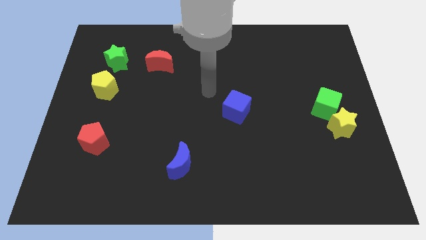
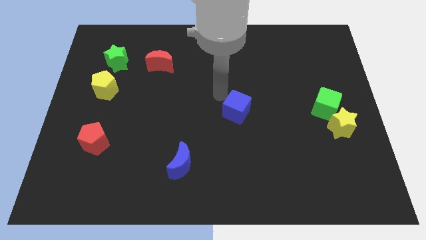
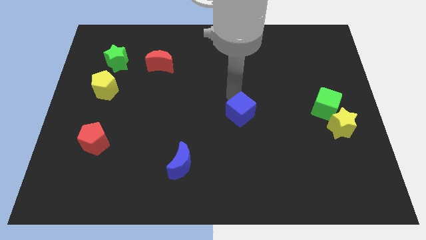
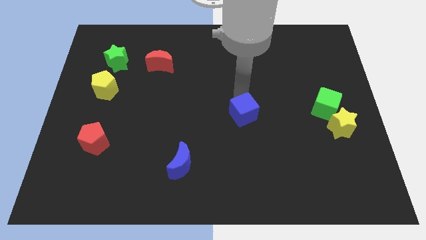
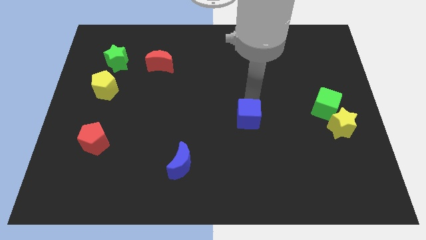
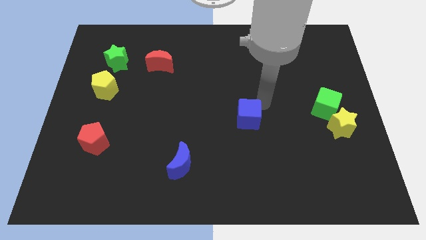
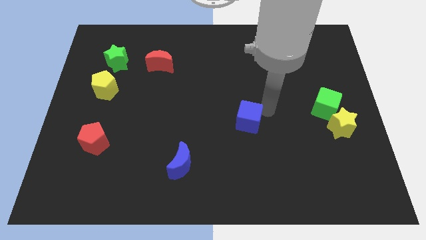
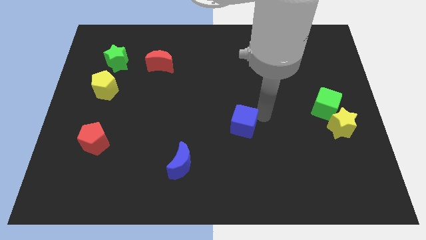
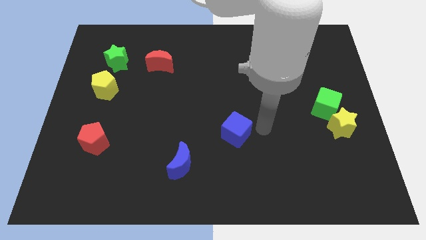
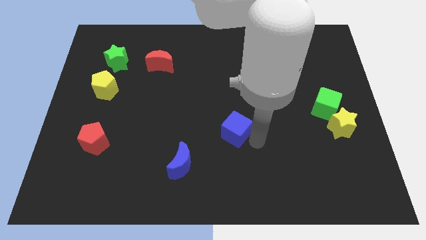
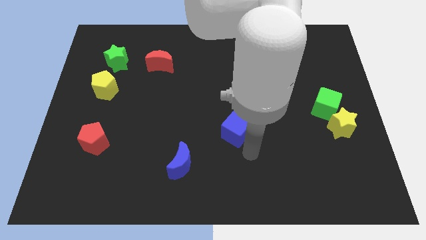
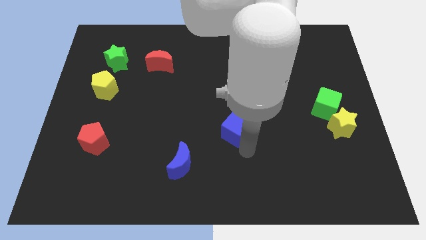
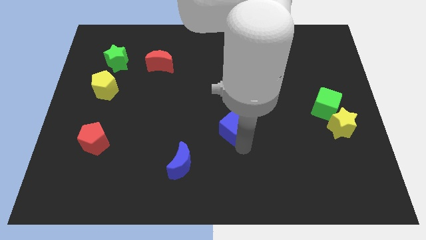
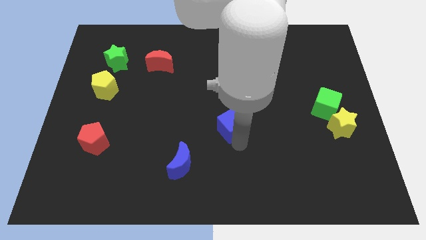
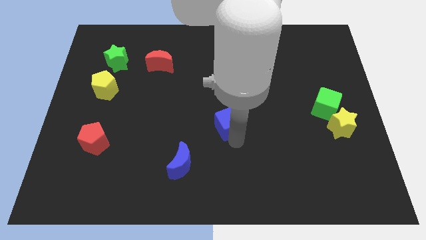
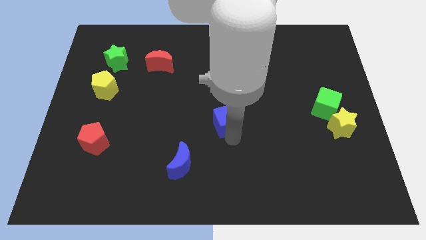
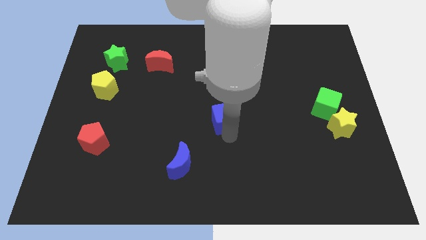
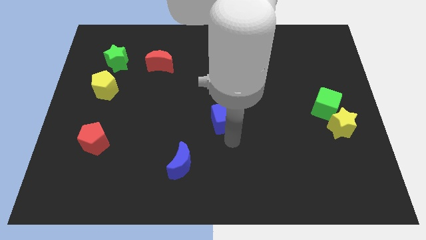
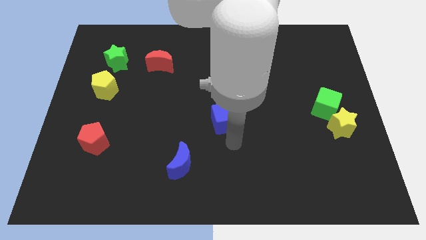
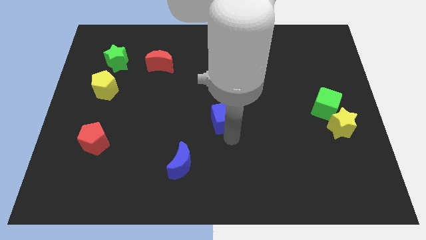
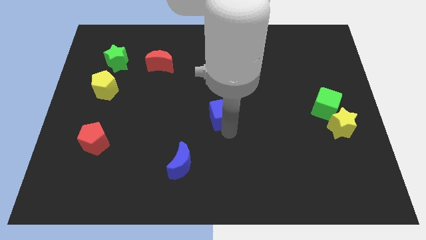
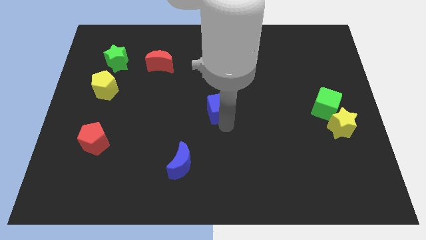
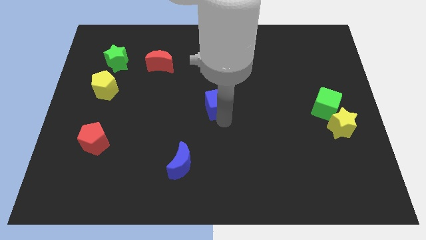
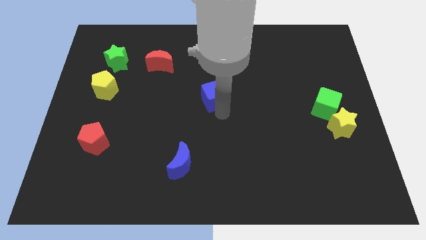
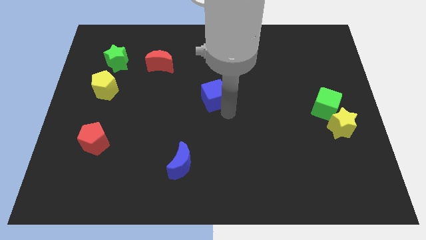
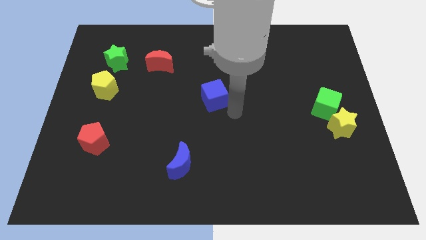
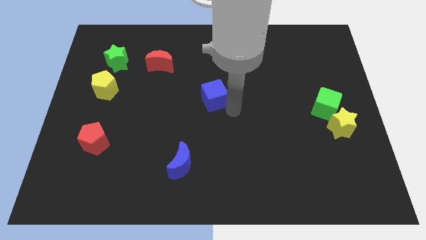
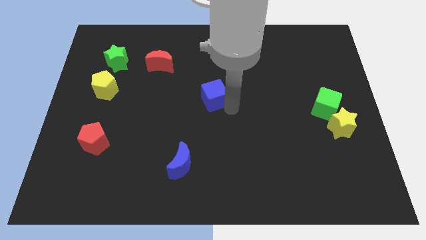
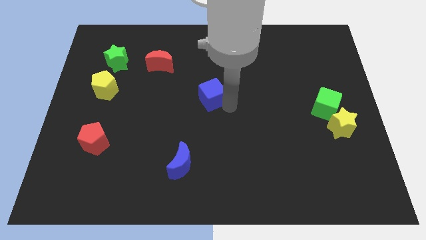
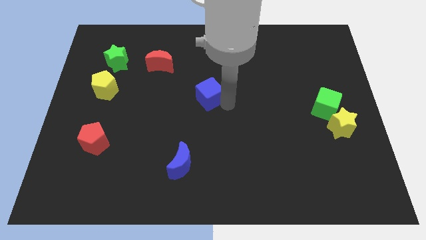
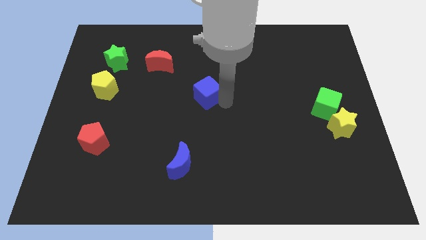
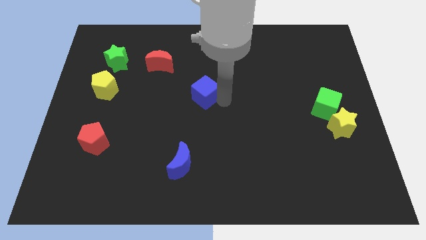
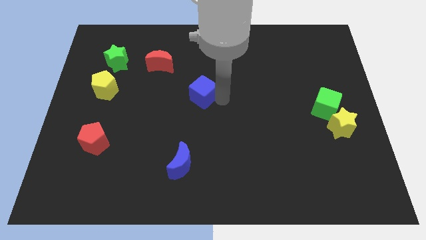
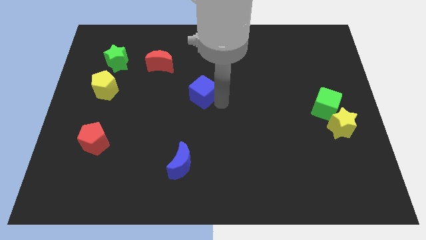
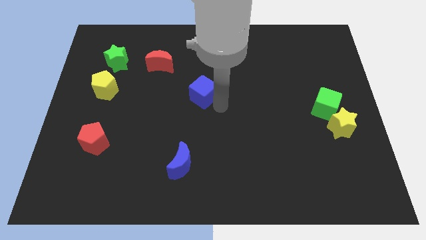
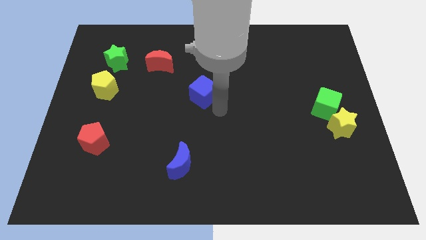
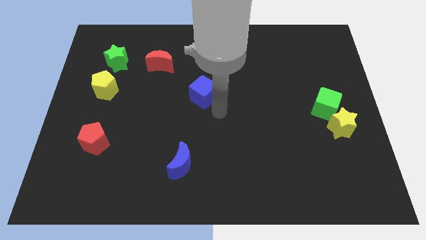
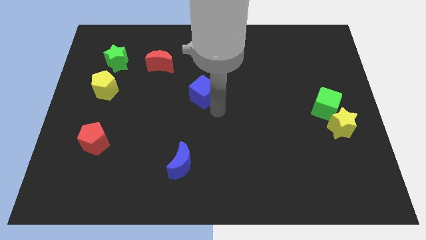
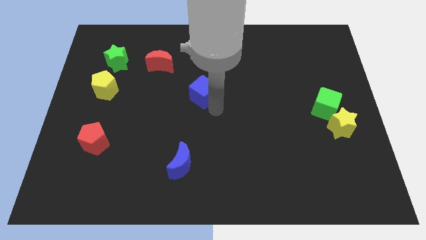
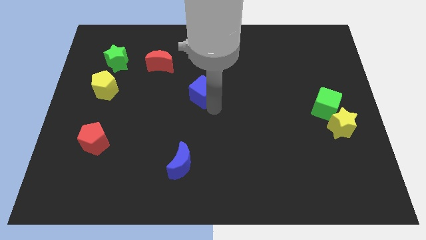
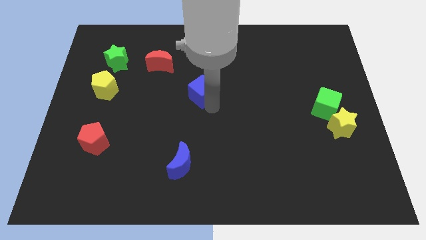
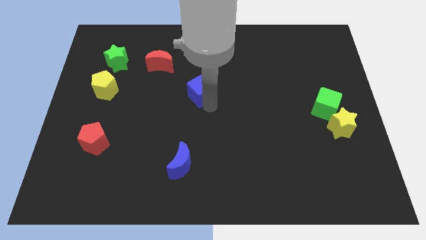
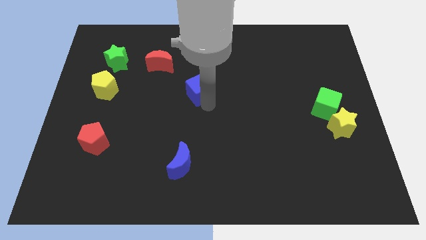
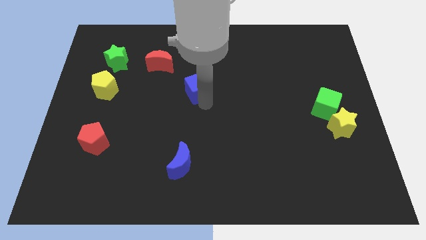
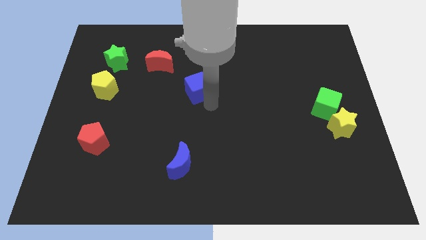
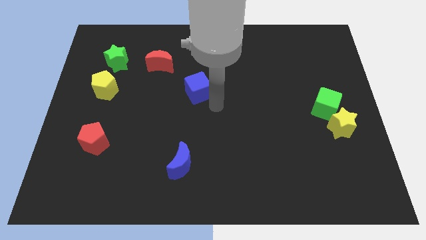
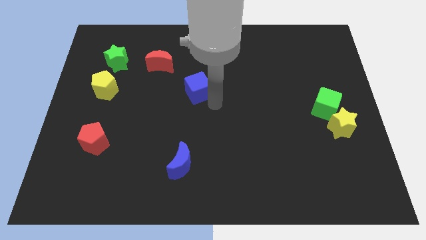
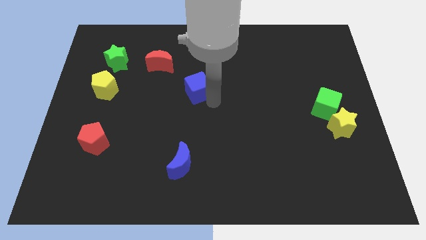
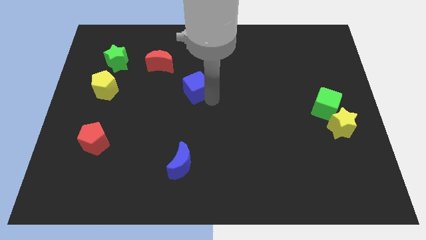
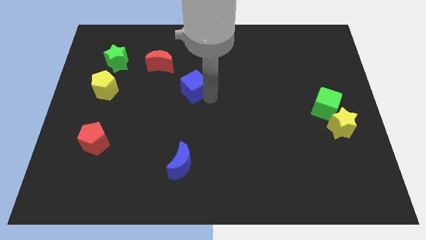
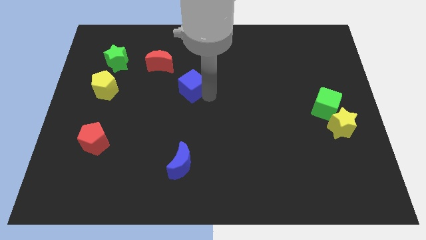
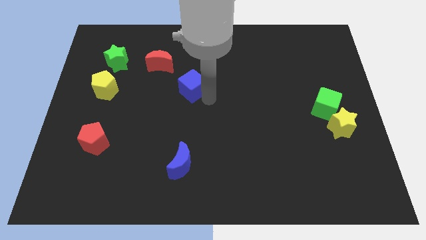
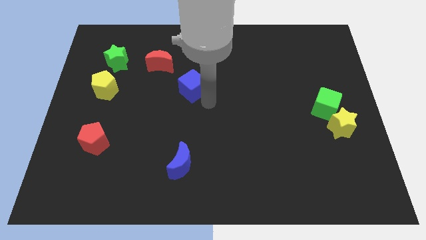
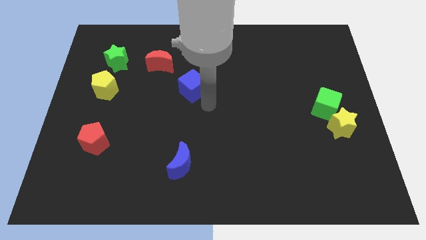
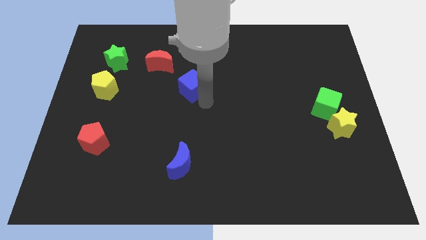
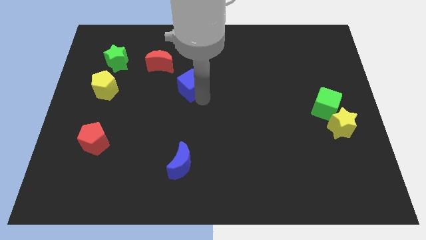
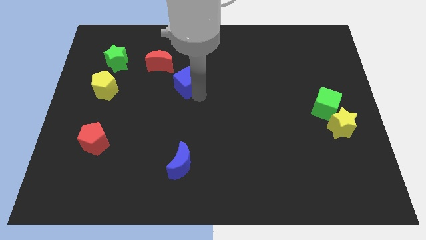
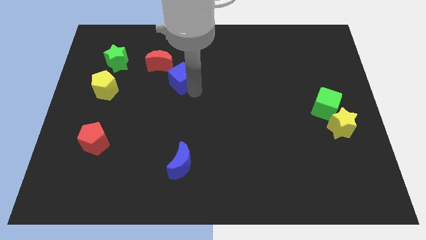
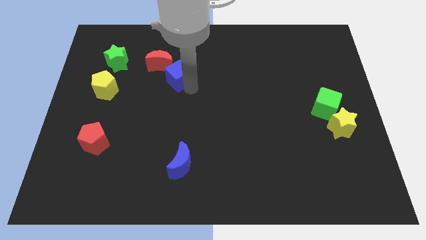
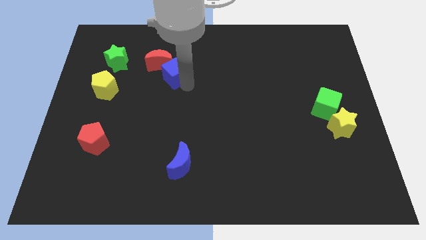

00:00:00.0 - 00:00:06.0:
move the blue cube close to the red moon

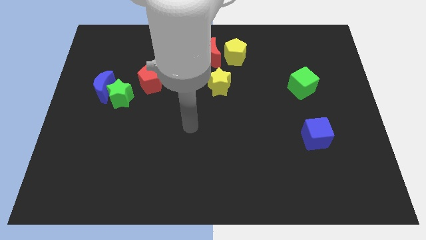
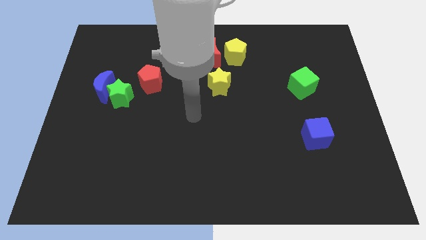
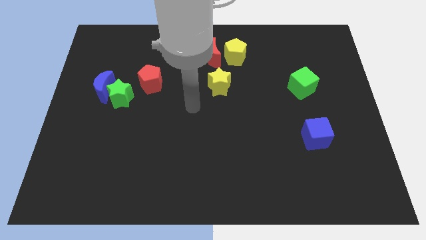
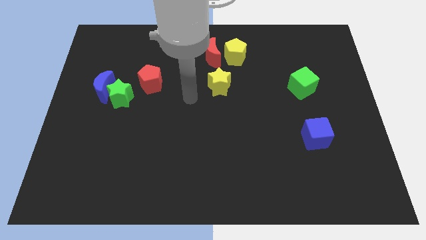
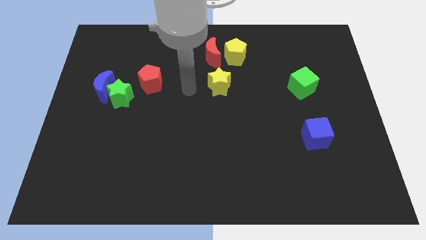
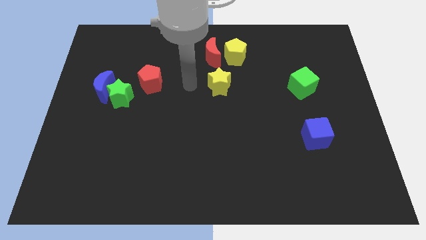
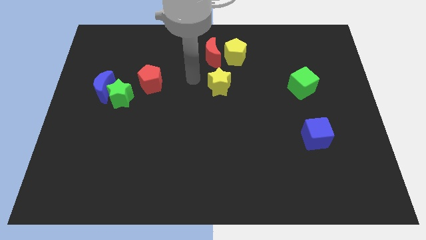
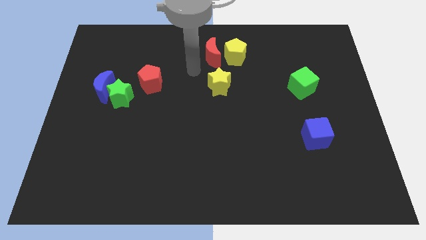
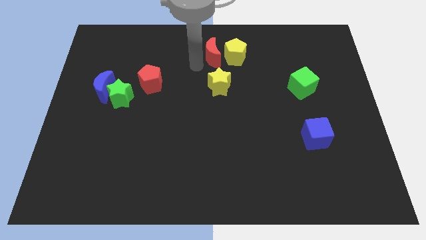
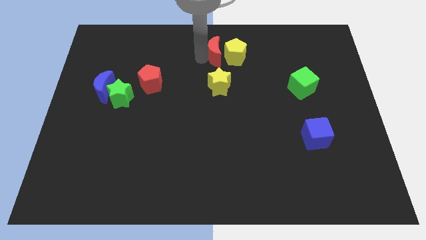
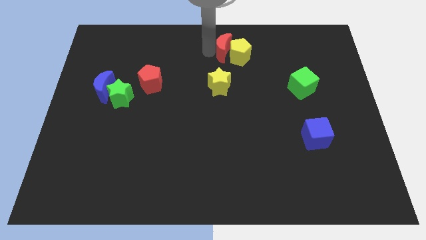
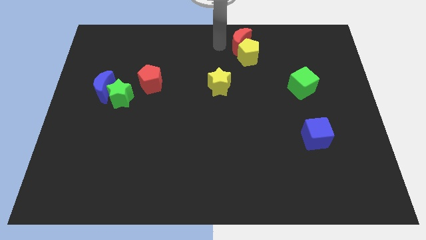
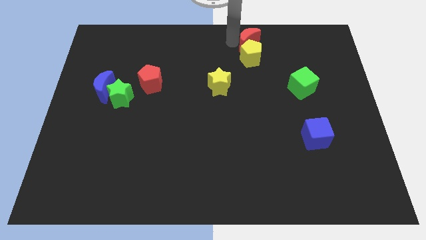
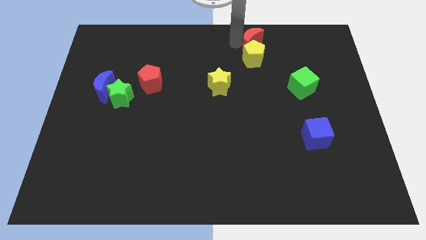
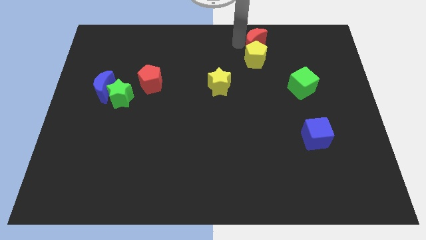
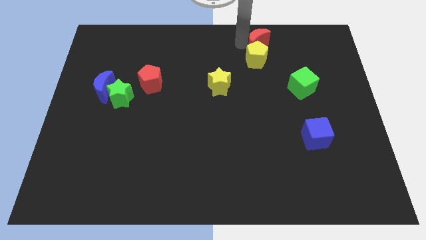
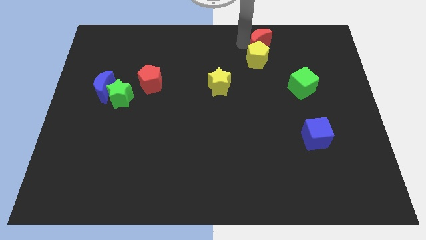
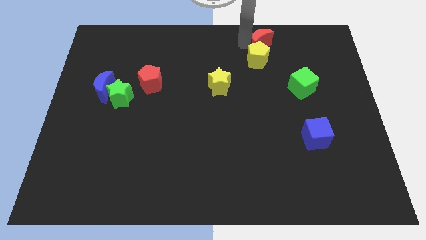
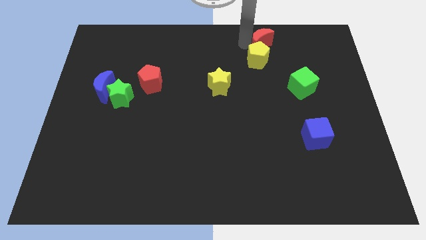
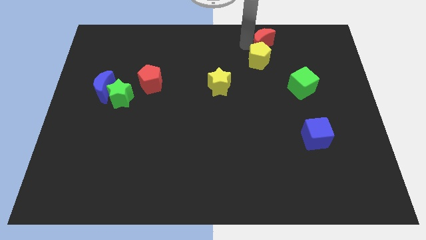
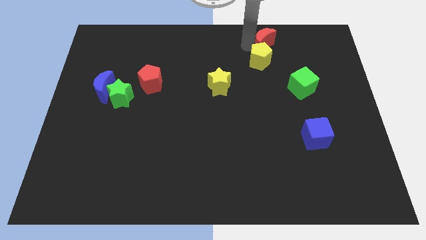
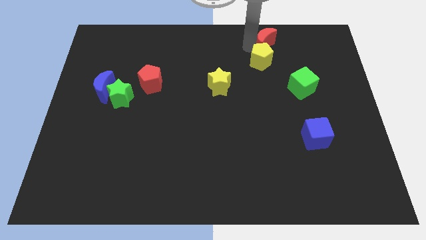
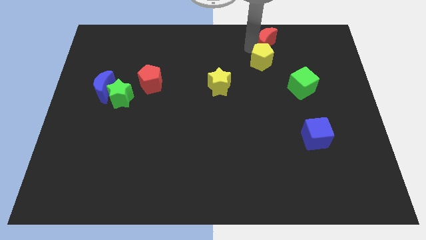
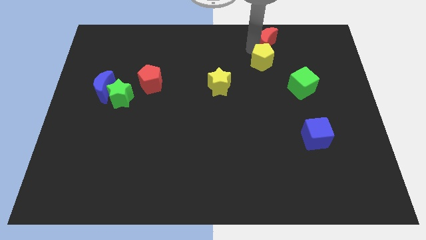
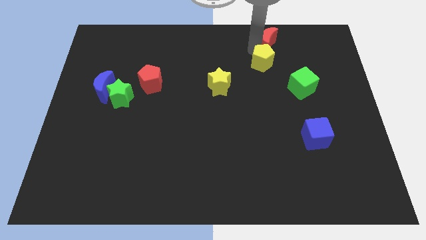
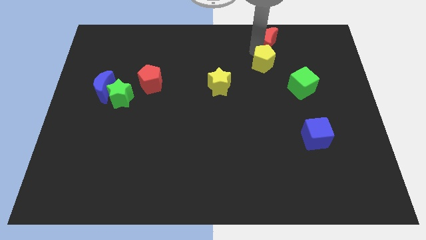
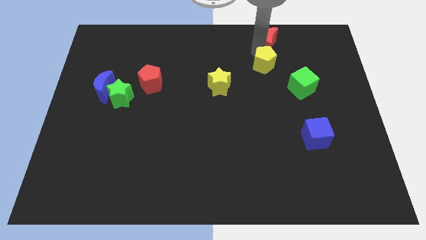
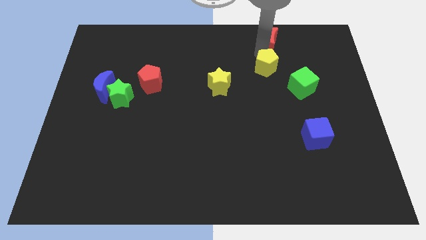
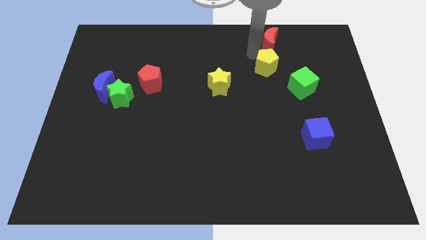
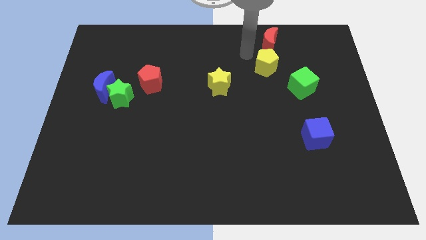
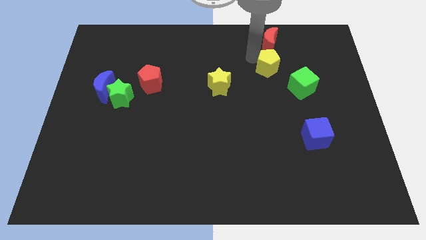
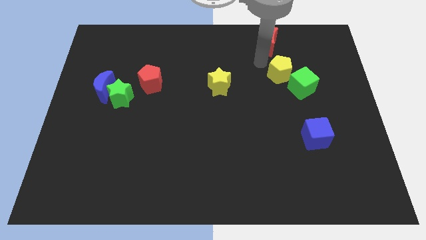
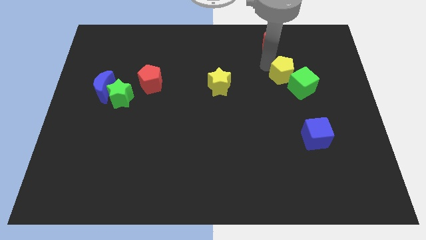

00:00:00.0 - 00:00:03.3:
slide the yellow pentagon next to the green cube
